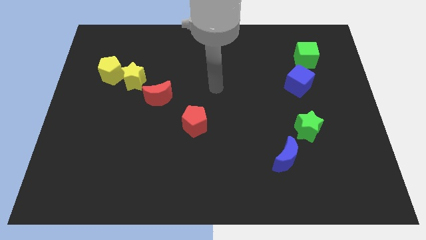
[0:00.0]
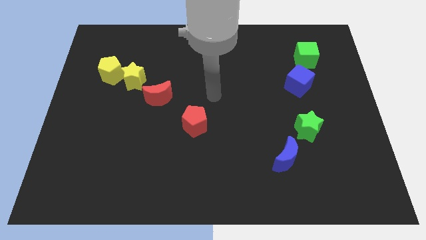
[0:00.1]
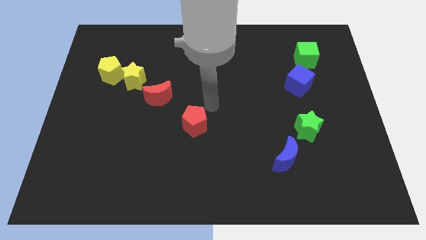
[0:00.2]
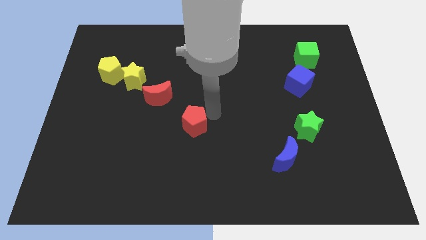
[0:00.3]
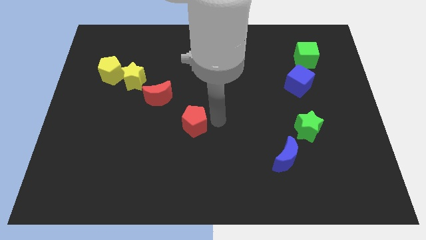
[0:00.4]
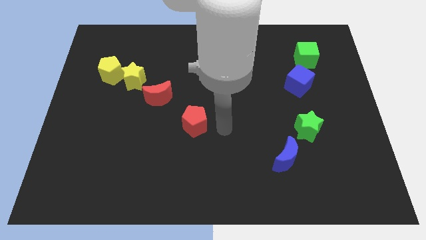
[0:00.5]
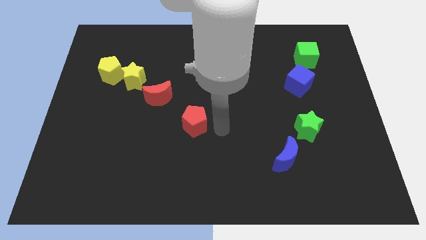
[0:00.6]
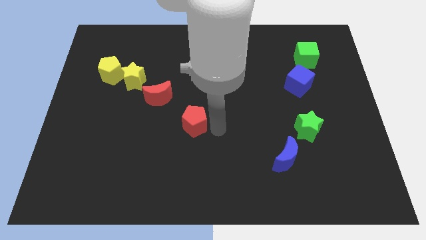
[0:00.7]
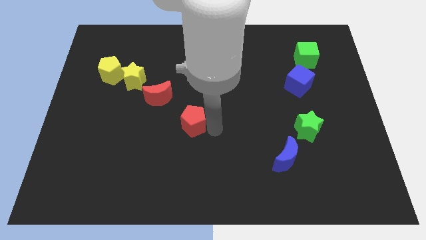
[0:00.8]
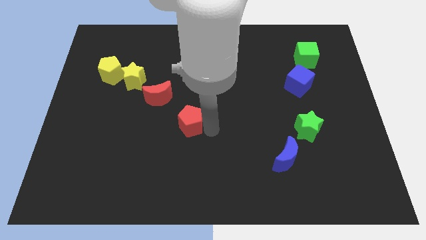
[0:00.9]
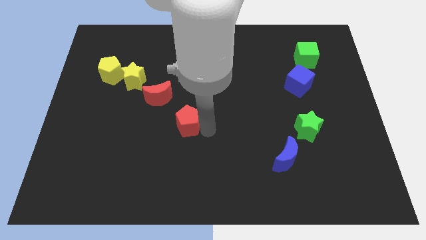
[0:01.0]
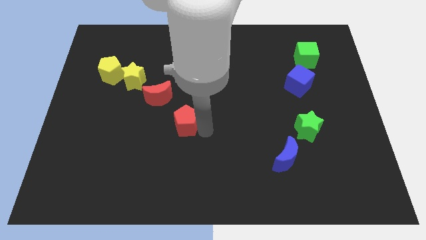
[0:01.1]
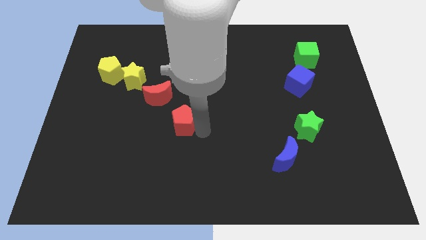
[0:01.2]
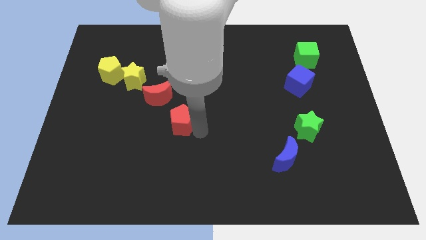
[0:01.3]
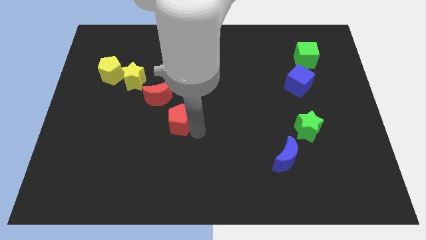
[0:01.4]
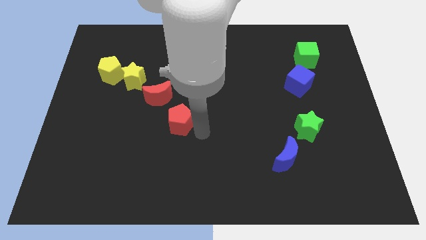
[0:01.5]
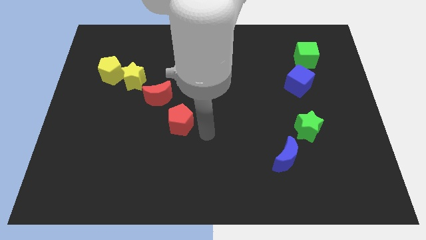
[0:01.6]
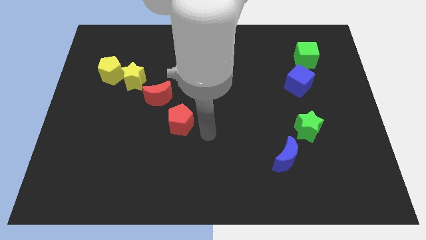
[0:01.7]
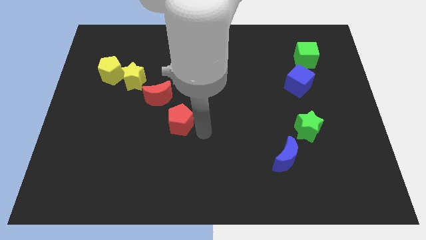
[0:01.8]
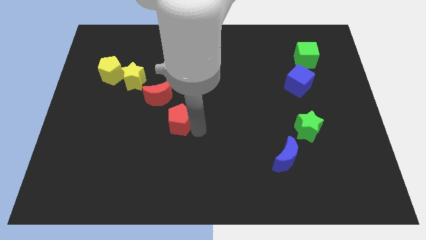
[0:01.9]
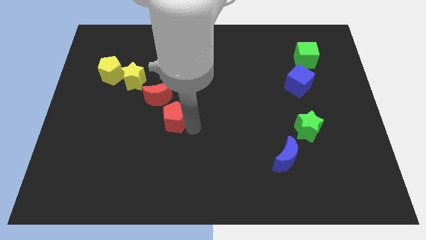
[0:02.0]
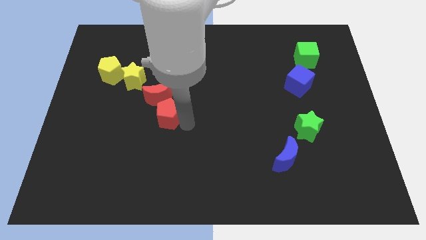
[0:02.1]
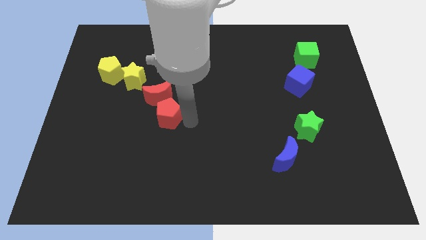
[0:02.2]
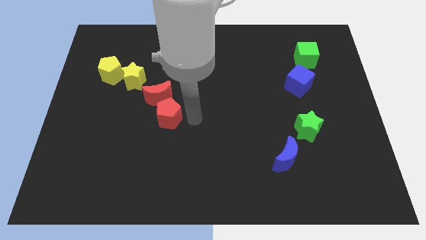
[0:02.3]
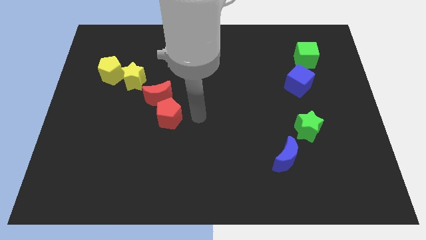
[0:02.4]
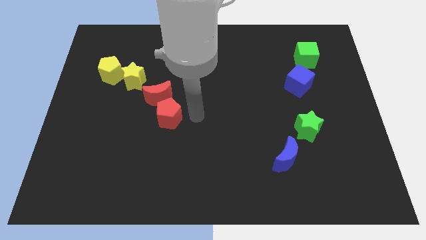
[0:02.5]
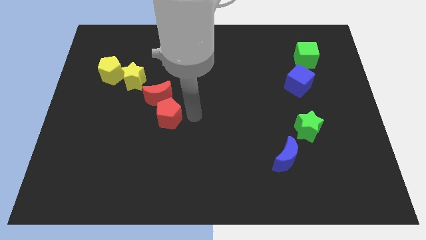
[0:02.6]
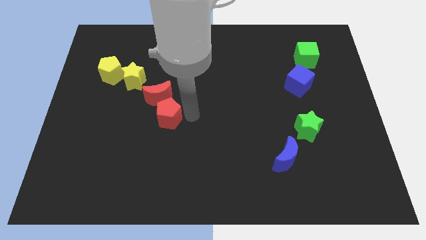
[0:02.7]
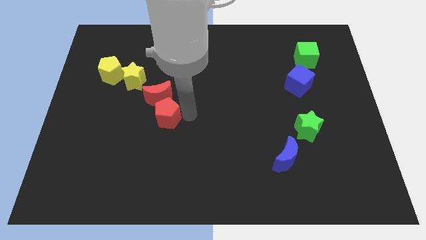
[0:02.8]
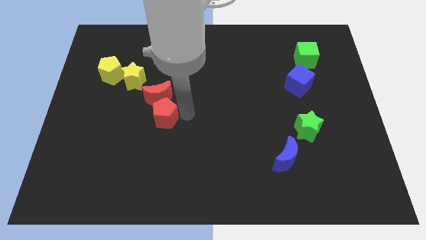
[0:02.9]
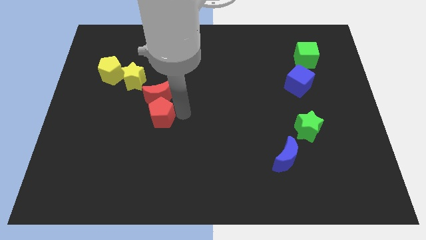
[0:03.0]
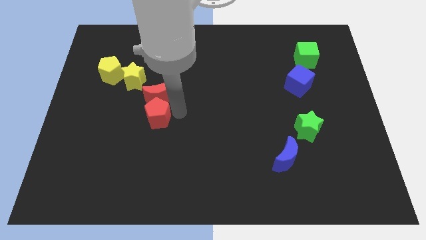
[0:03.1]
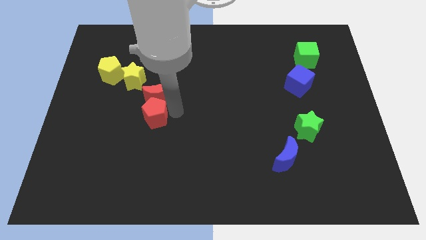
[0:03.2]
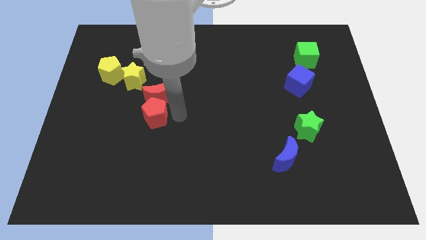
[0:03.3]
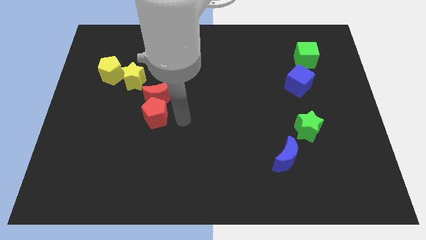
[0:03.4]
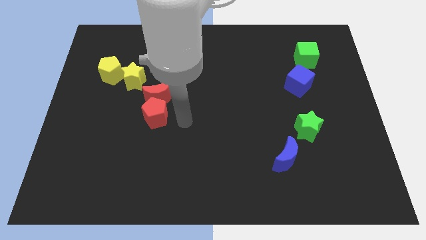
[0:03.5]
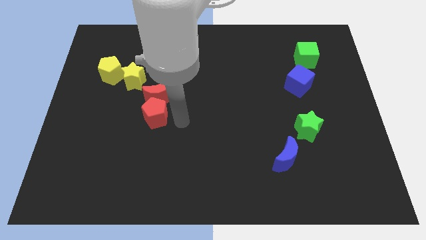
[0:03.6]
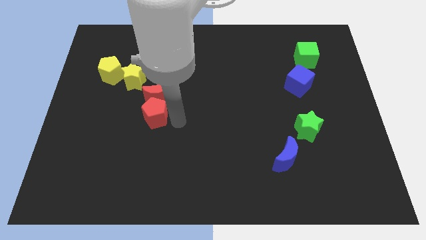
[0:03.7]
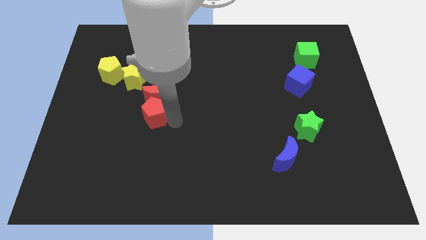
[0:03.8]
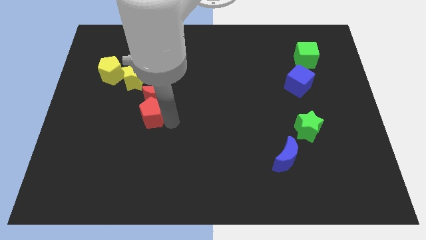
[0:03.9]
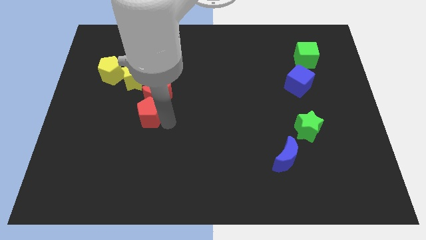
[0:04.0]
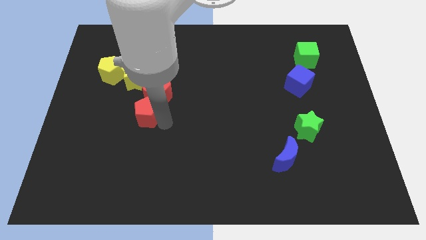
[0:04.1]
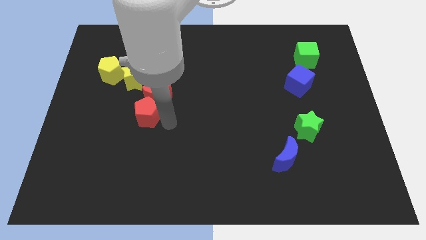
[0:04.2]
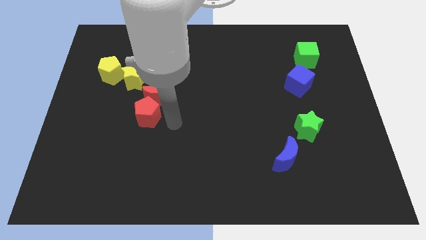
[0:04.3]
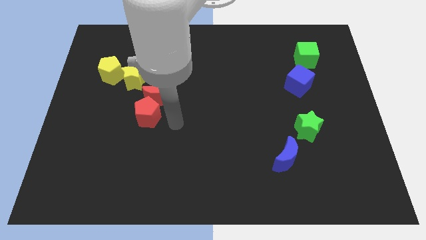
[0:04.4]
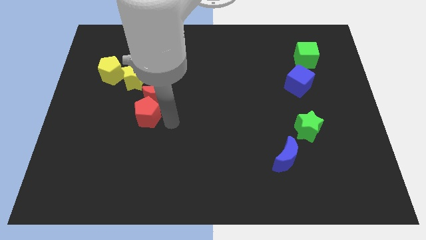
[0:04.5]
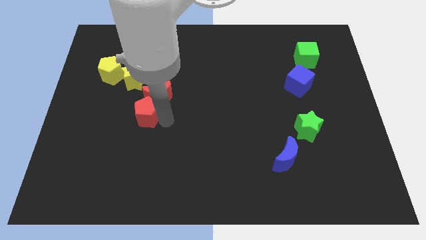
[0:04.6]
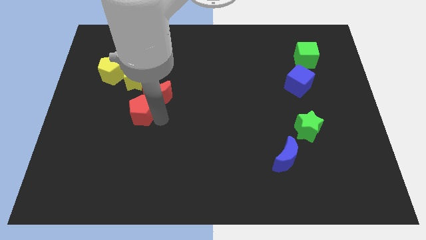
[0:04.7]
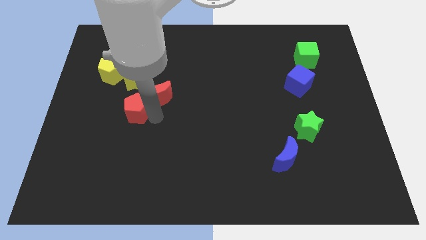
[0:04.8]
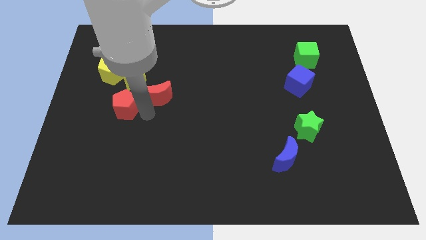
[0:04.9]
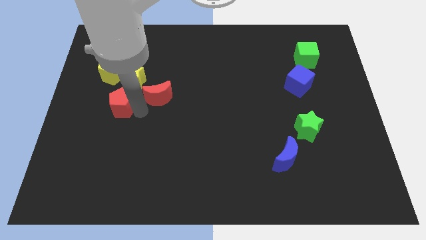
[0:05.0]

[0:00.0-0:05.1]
put the red pentagon to the bottom of the yellow pentagon

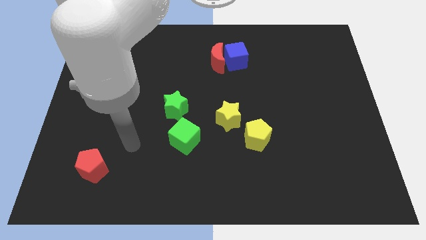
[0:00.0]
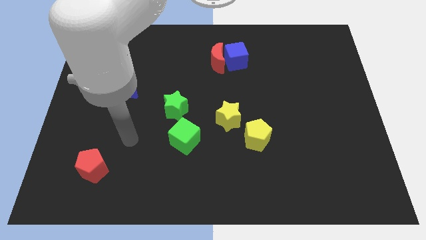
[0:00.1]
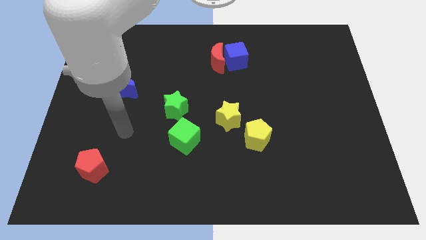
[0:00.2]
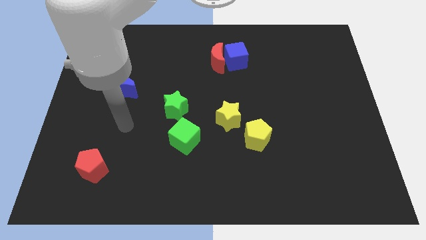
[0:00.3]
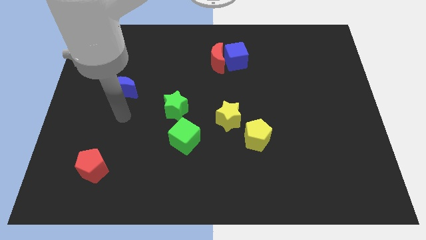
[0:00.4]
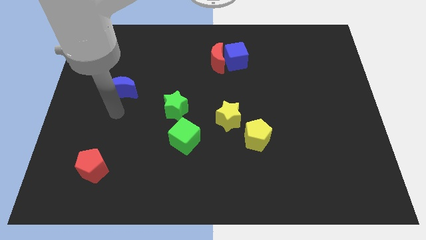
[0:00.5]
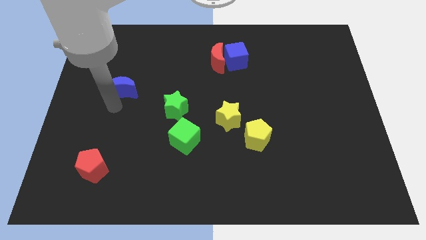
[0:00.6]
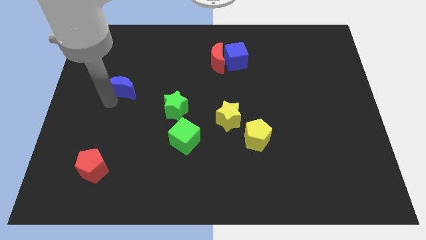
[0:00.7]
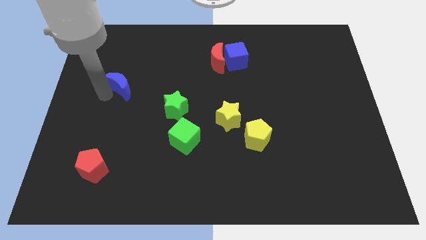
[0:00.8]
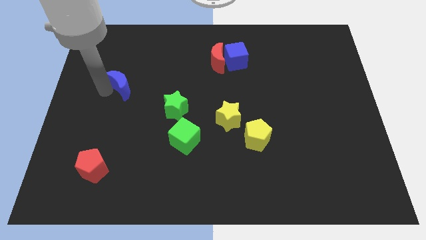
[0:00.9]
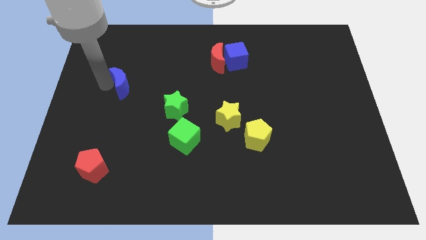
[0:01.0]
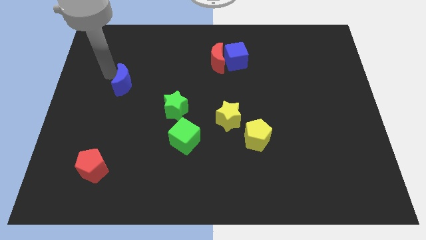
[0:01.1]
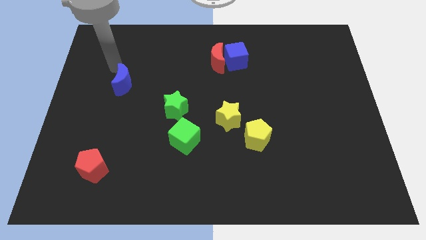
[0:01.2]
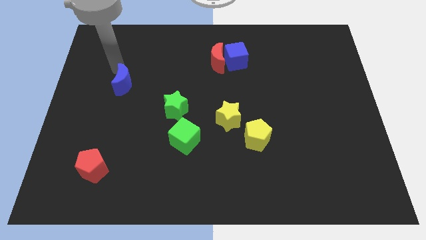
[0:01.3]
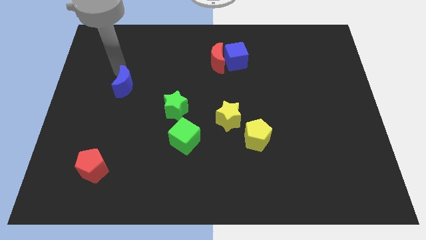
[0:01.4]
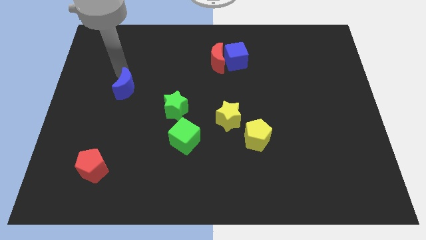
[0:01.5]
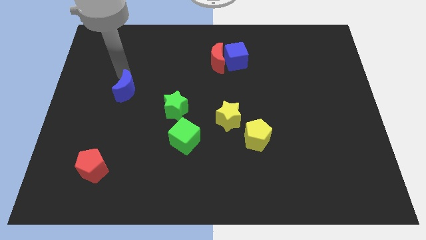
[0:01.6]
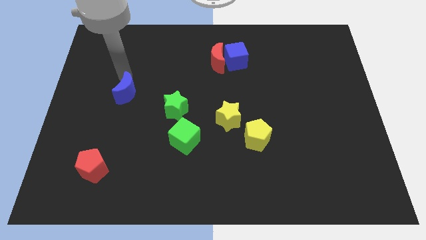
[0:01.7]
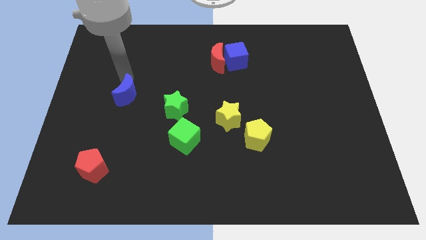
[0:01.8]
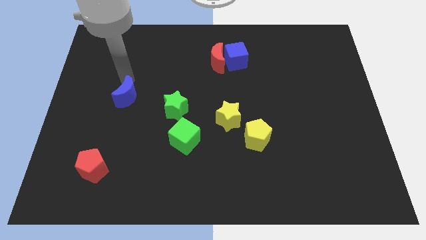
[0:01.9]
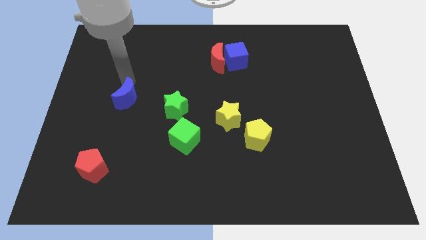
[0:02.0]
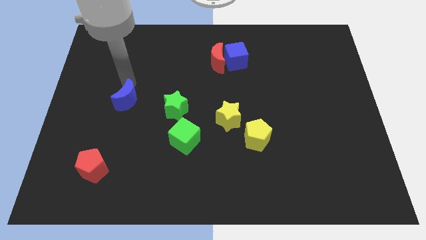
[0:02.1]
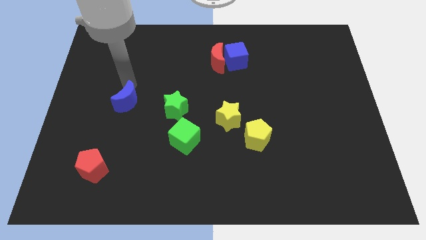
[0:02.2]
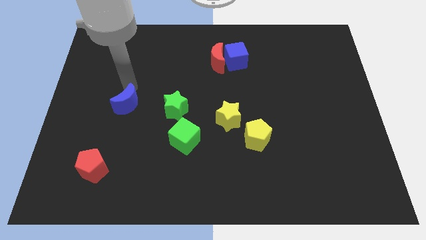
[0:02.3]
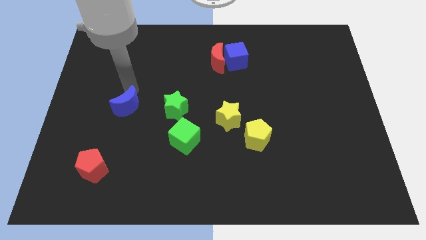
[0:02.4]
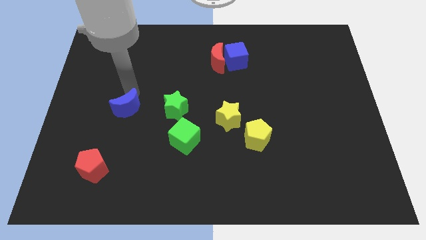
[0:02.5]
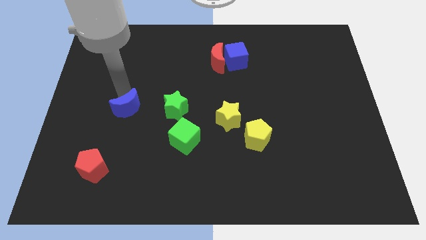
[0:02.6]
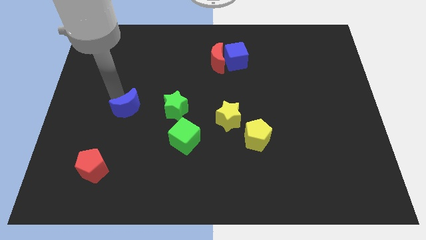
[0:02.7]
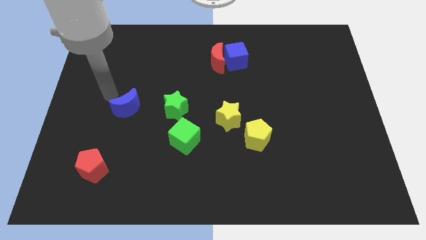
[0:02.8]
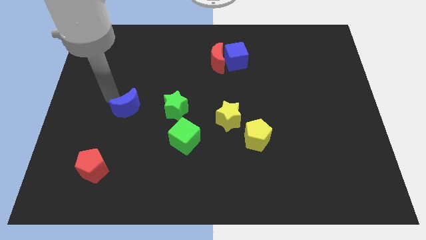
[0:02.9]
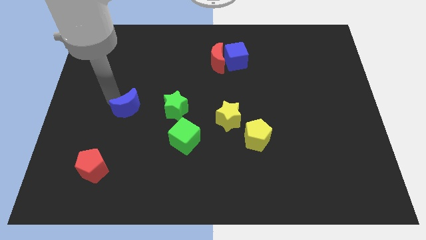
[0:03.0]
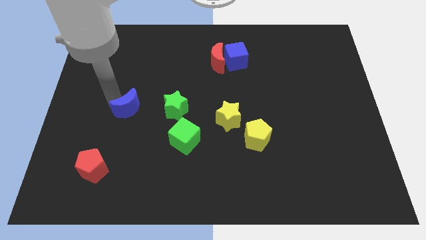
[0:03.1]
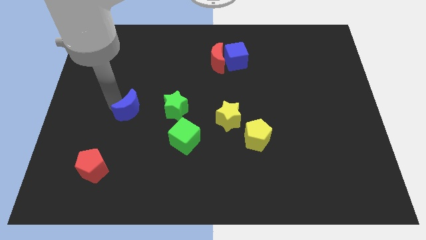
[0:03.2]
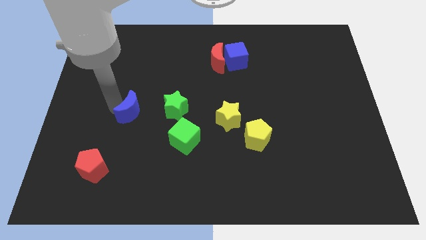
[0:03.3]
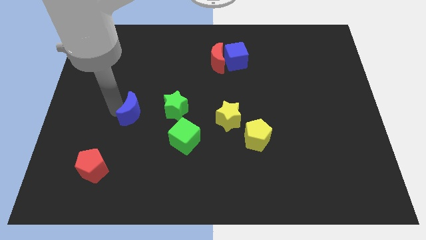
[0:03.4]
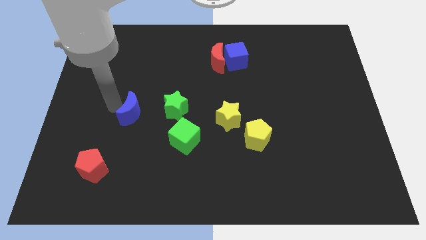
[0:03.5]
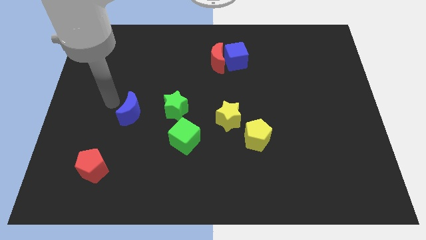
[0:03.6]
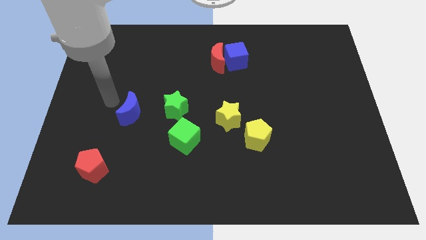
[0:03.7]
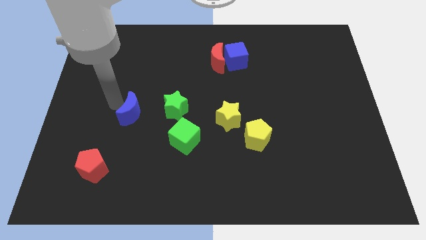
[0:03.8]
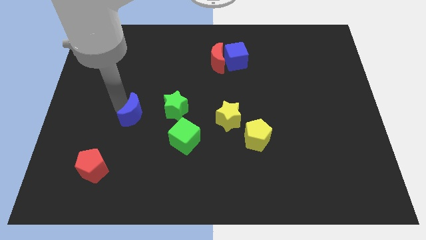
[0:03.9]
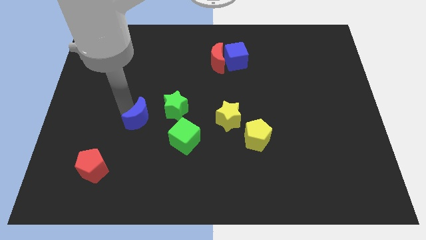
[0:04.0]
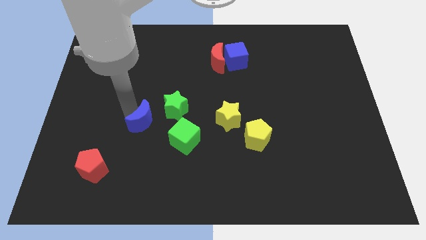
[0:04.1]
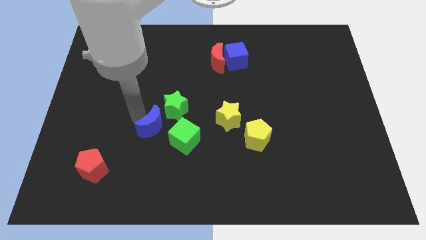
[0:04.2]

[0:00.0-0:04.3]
slide the blue moon to the bottom side of the green star
